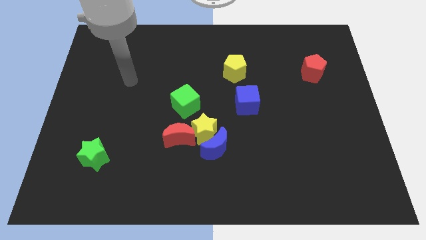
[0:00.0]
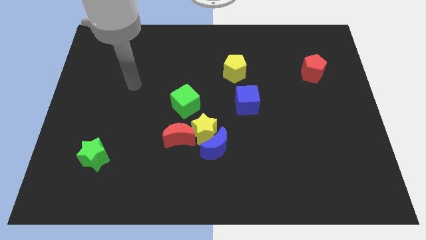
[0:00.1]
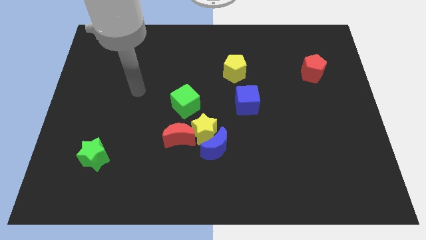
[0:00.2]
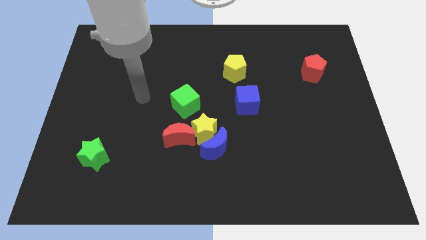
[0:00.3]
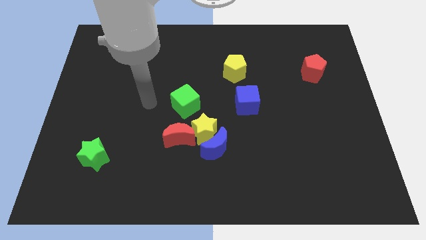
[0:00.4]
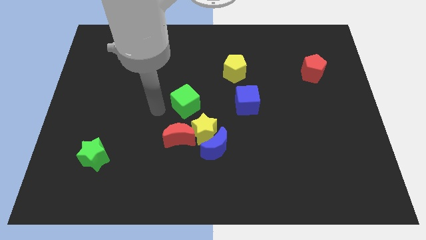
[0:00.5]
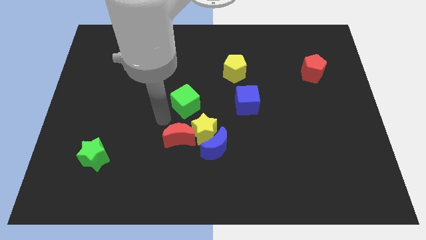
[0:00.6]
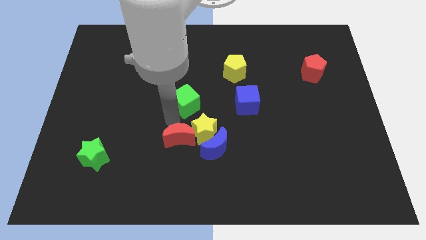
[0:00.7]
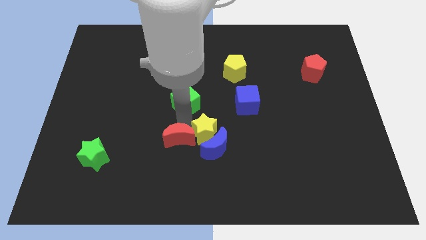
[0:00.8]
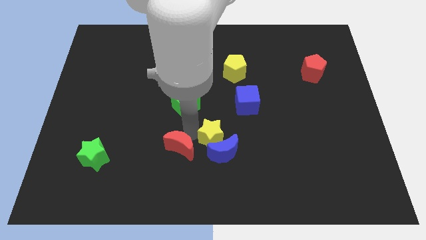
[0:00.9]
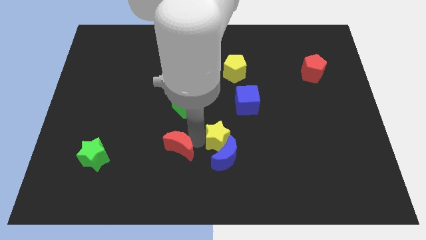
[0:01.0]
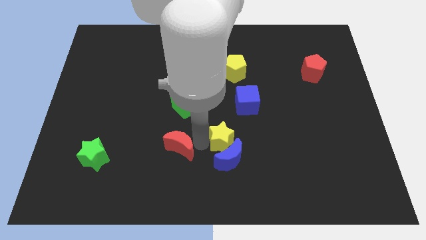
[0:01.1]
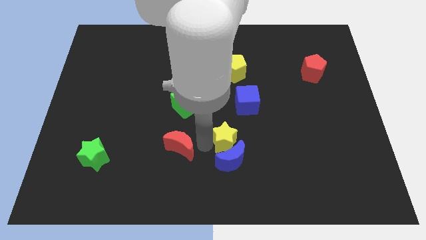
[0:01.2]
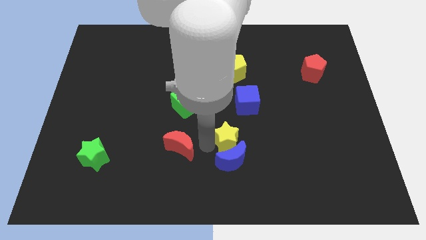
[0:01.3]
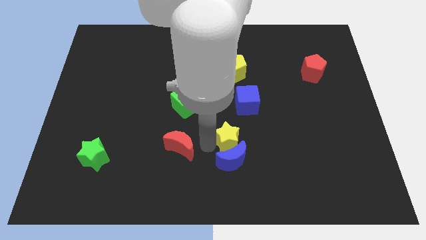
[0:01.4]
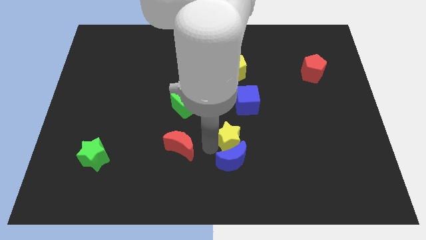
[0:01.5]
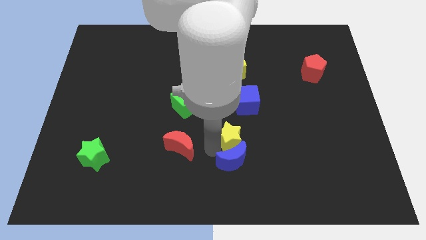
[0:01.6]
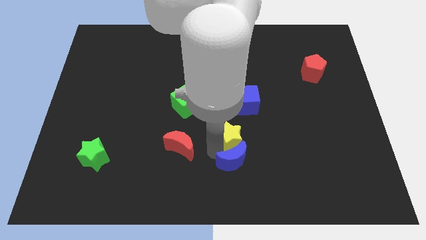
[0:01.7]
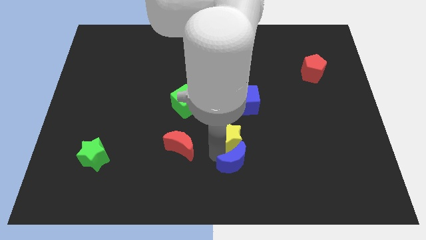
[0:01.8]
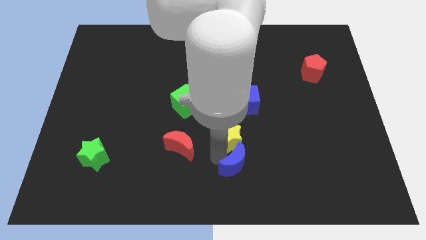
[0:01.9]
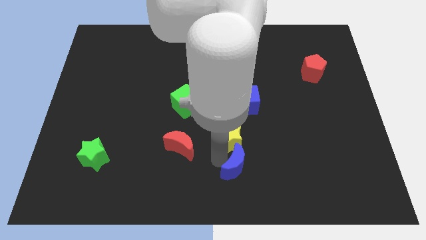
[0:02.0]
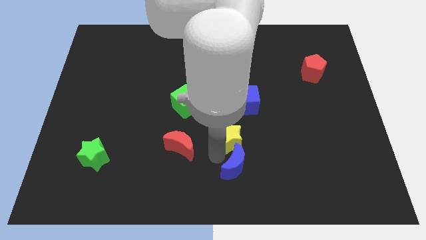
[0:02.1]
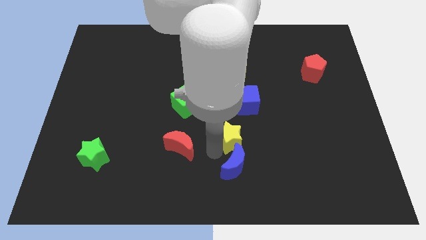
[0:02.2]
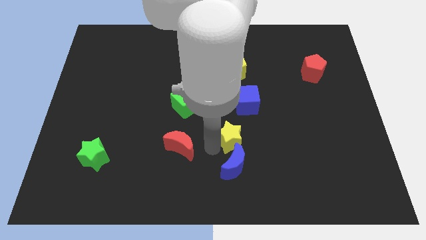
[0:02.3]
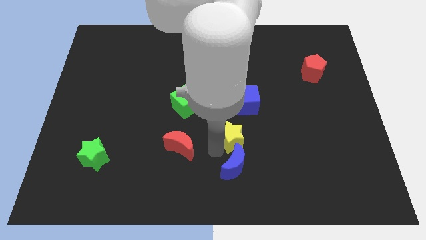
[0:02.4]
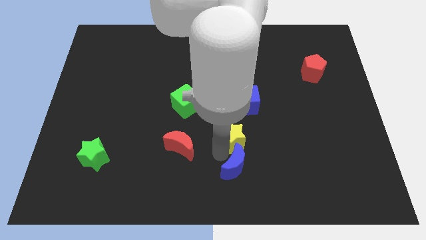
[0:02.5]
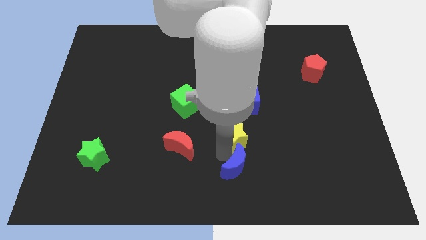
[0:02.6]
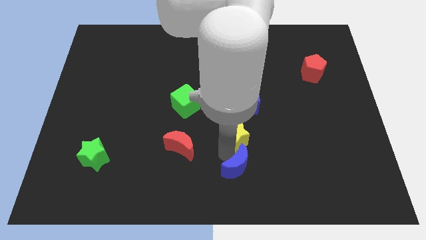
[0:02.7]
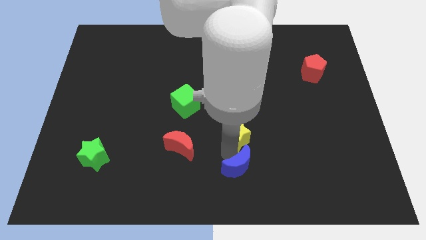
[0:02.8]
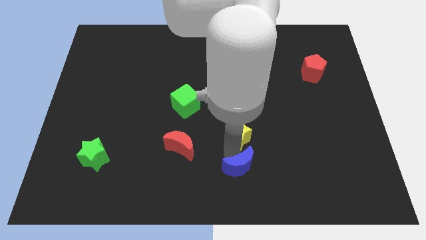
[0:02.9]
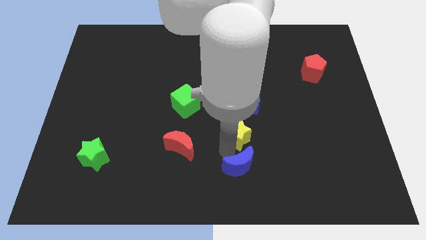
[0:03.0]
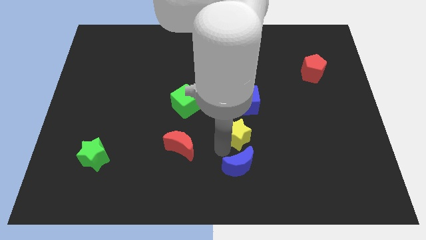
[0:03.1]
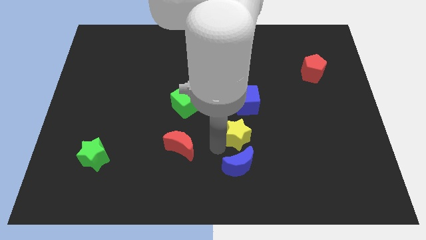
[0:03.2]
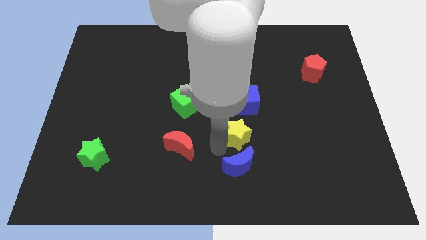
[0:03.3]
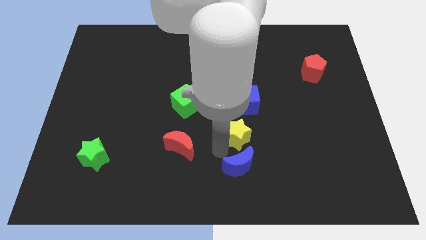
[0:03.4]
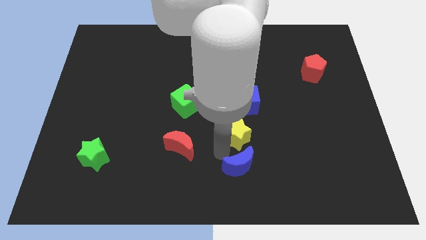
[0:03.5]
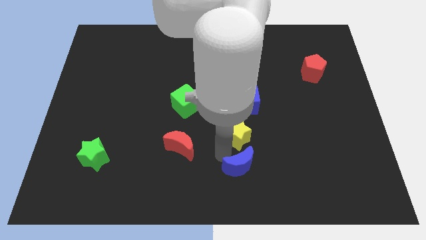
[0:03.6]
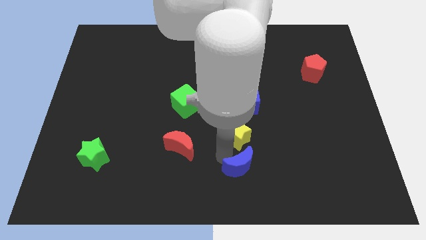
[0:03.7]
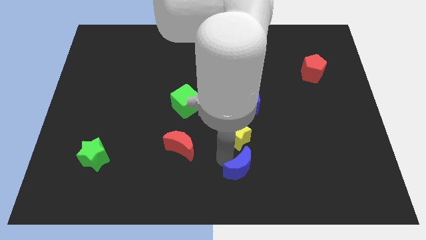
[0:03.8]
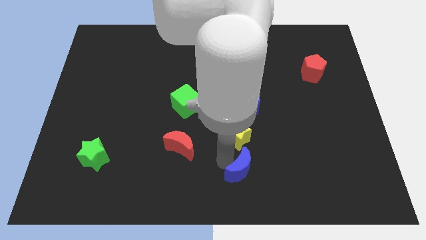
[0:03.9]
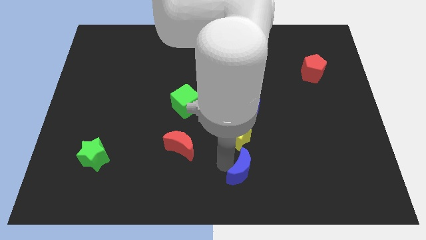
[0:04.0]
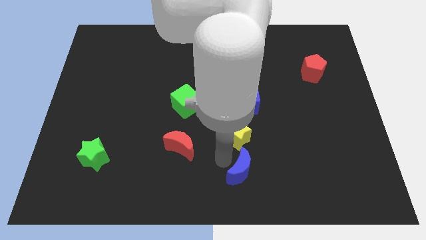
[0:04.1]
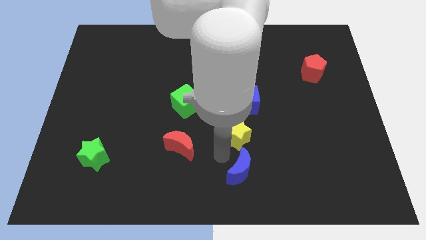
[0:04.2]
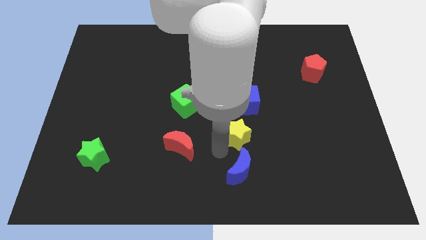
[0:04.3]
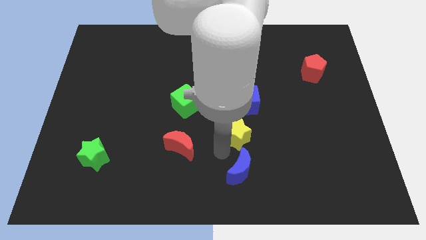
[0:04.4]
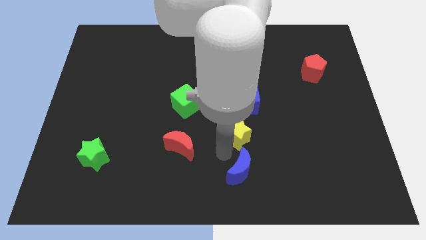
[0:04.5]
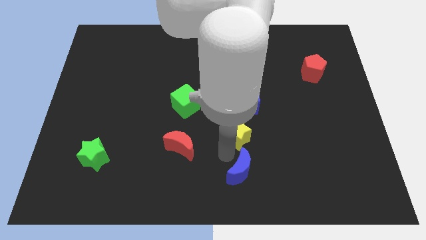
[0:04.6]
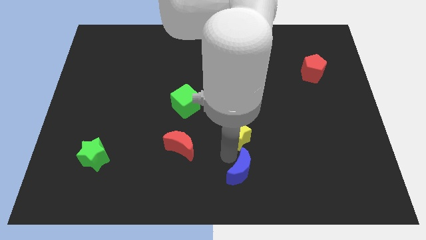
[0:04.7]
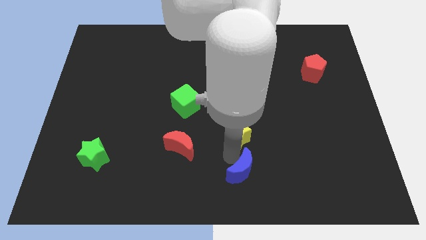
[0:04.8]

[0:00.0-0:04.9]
separate the blue moon from the yellow star and red moon

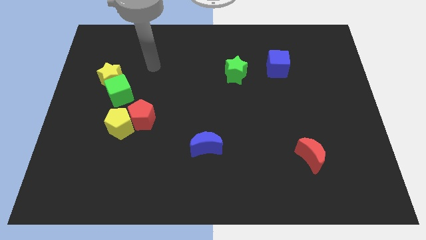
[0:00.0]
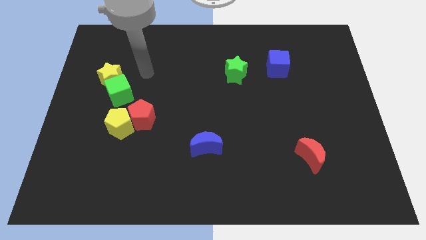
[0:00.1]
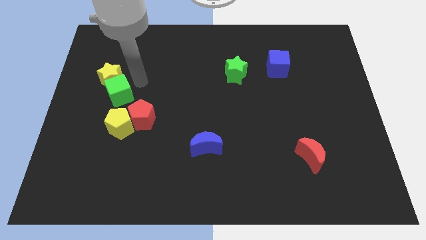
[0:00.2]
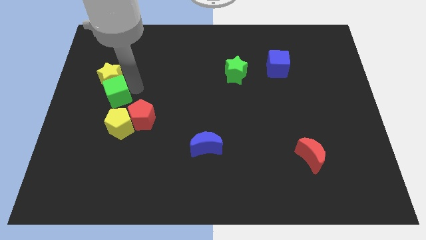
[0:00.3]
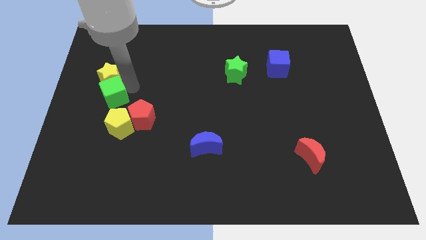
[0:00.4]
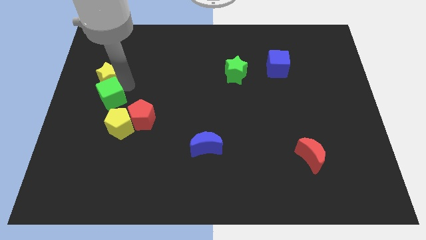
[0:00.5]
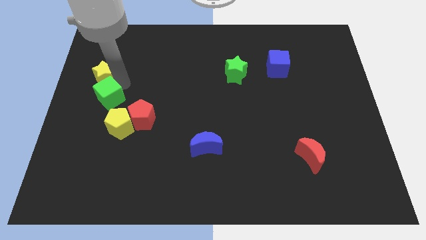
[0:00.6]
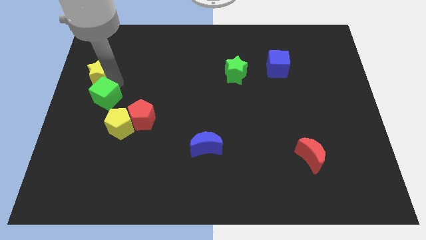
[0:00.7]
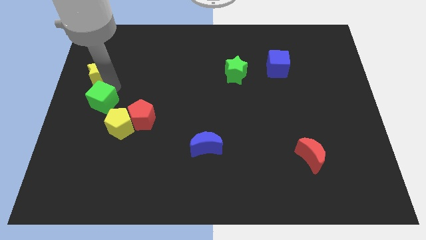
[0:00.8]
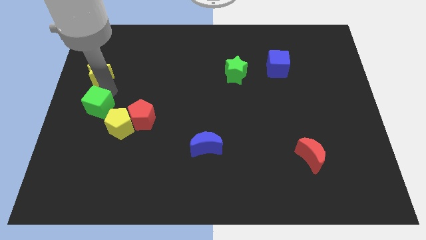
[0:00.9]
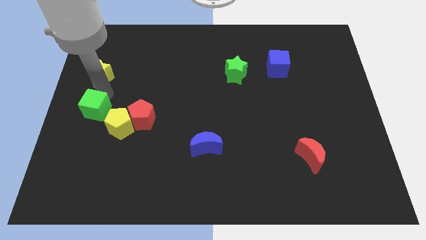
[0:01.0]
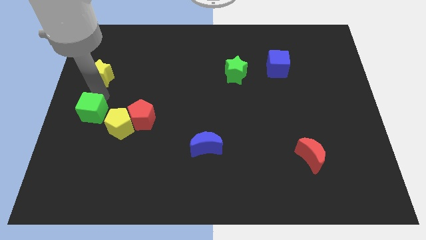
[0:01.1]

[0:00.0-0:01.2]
move the yellow star away from the green cube

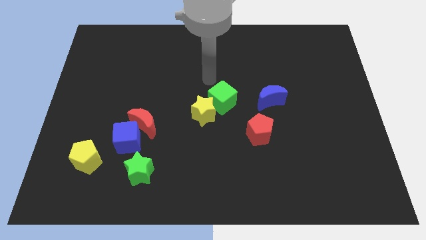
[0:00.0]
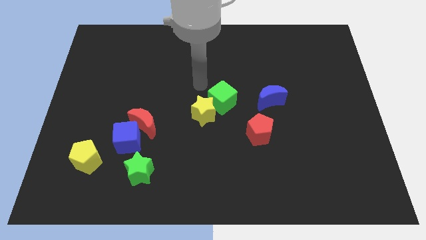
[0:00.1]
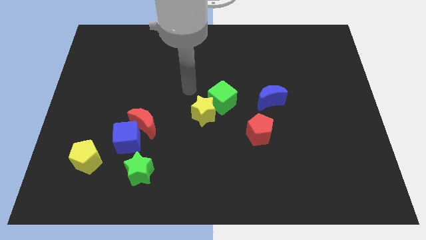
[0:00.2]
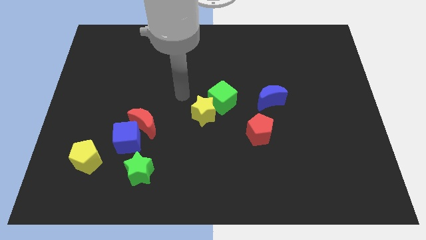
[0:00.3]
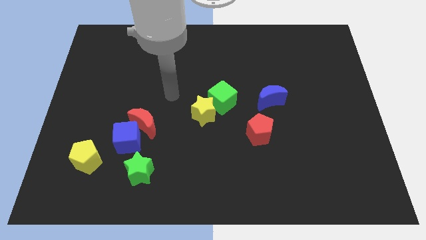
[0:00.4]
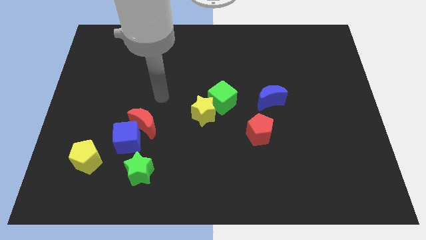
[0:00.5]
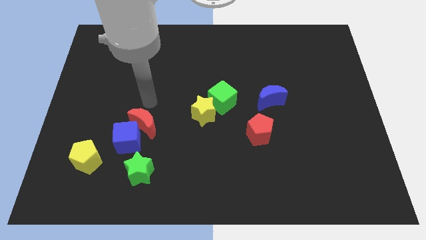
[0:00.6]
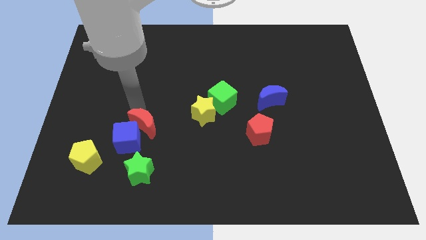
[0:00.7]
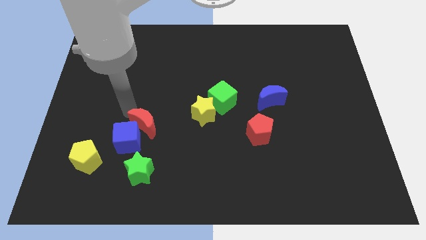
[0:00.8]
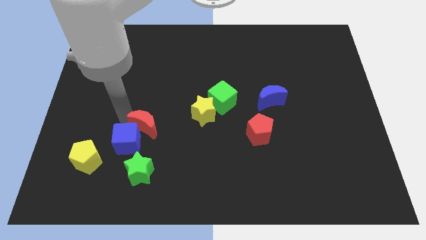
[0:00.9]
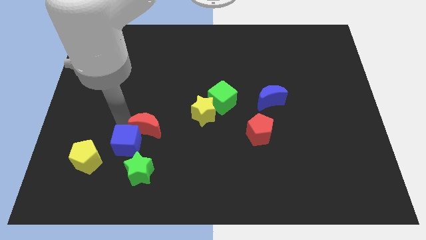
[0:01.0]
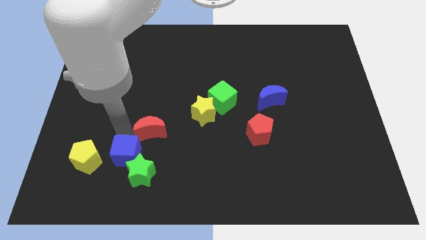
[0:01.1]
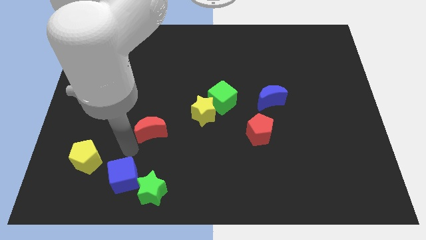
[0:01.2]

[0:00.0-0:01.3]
pull the red moon apart from the blue cube

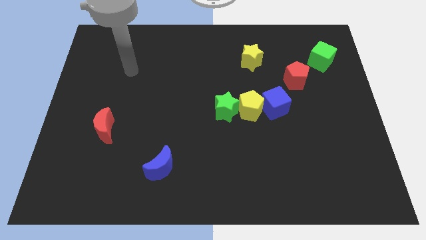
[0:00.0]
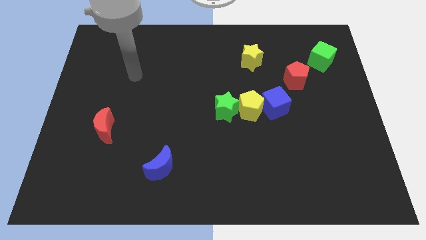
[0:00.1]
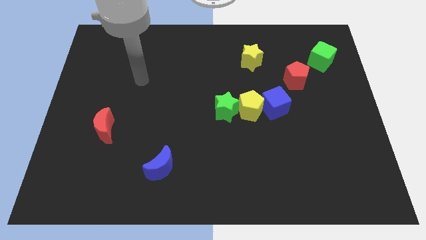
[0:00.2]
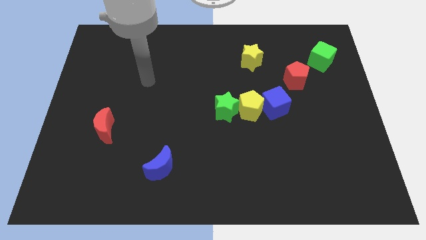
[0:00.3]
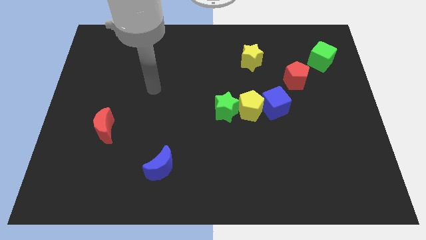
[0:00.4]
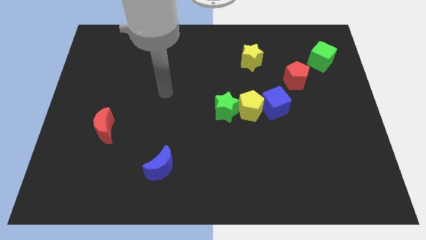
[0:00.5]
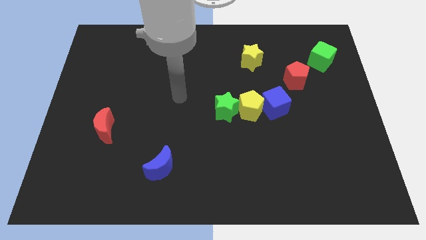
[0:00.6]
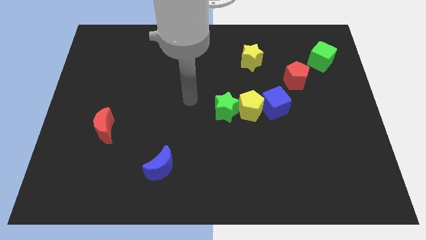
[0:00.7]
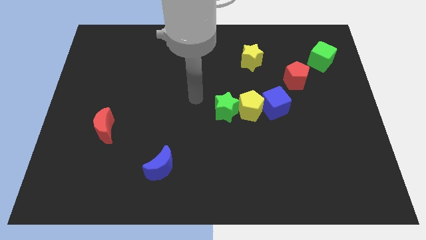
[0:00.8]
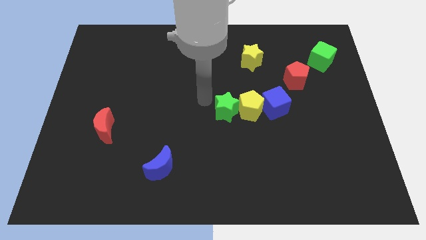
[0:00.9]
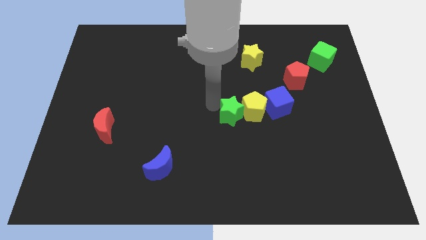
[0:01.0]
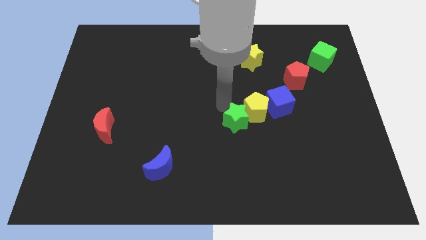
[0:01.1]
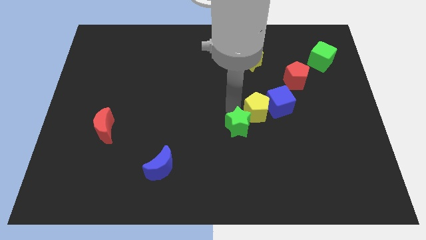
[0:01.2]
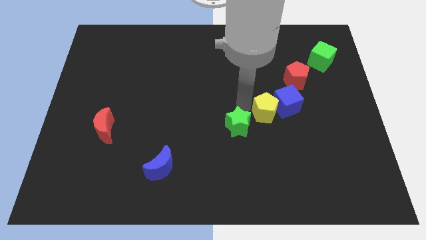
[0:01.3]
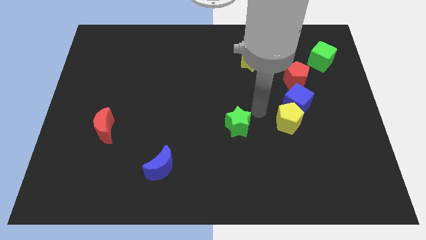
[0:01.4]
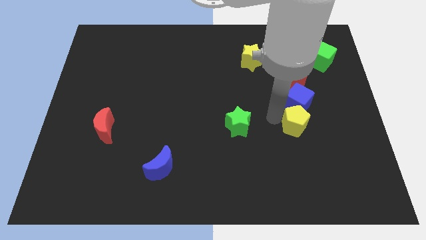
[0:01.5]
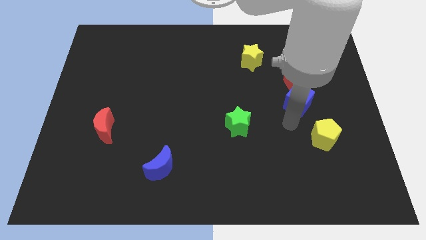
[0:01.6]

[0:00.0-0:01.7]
separate the blue cube from the yellow pentagon

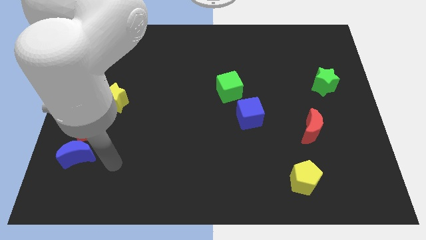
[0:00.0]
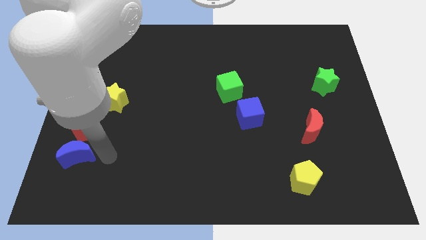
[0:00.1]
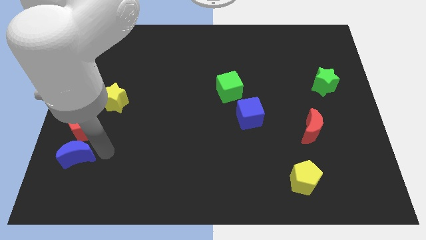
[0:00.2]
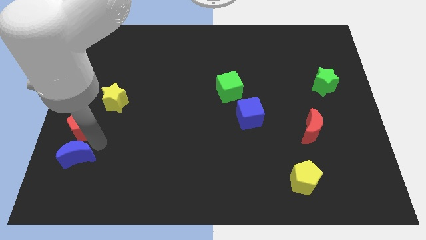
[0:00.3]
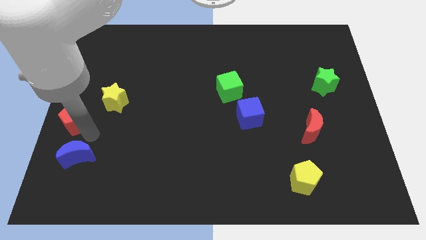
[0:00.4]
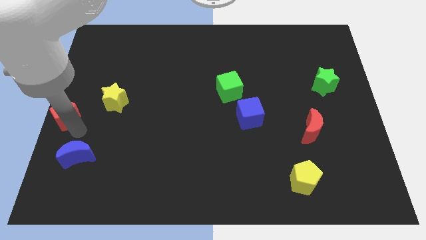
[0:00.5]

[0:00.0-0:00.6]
separate the blue moon from the red pentagon
